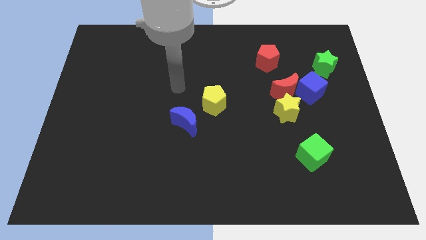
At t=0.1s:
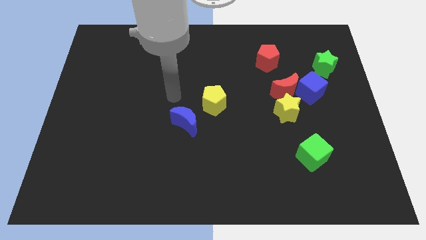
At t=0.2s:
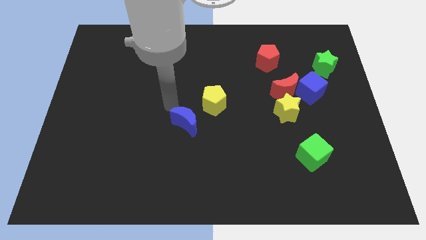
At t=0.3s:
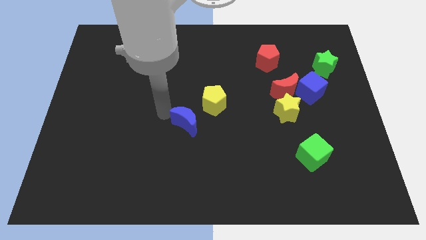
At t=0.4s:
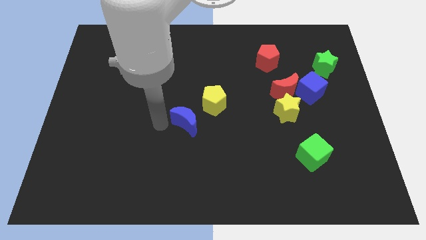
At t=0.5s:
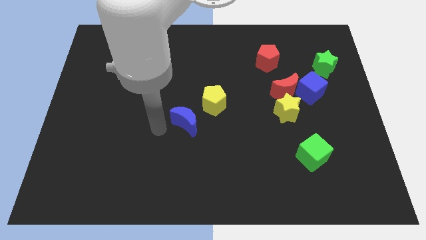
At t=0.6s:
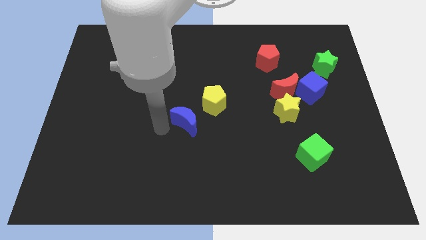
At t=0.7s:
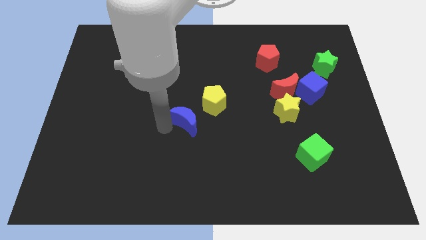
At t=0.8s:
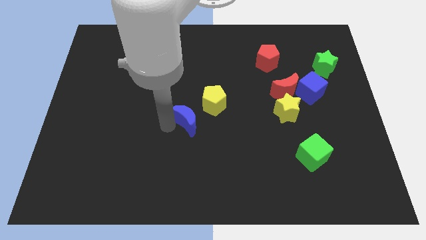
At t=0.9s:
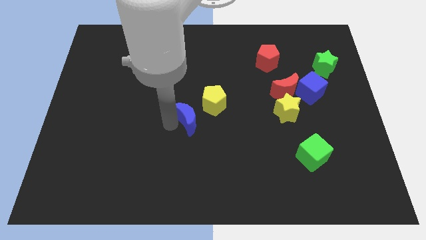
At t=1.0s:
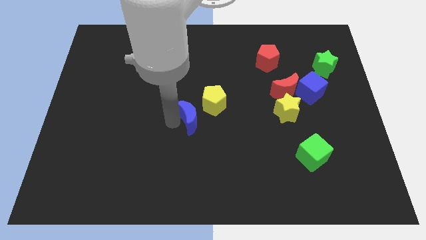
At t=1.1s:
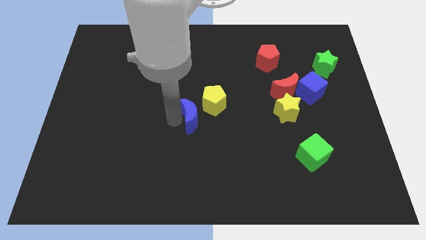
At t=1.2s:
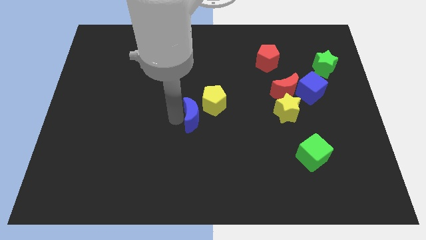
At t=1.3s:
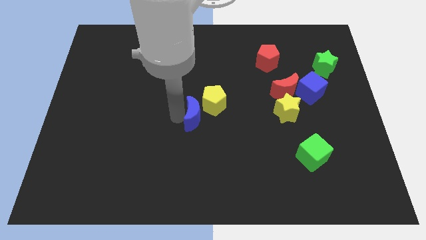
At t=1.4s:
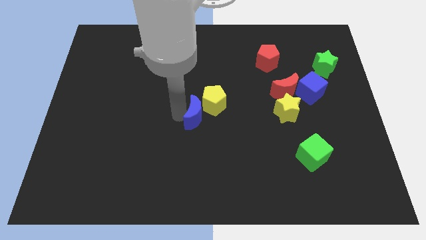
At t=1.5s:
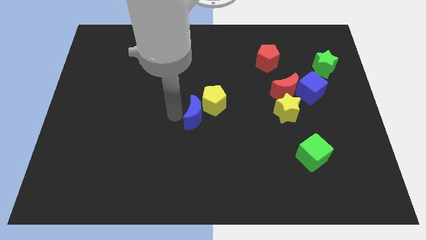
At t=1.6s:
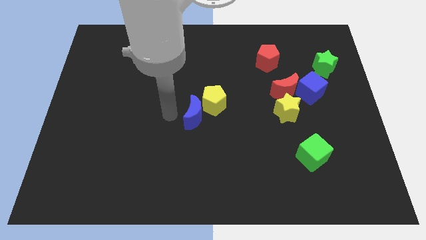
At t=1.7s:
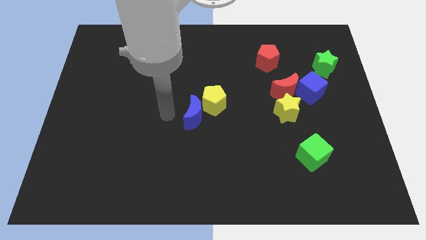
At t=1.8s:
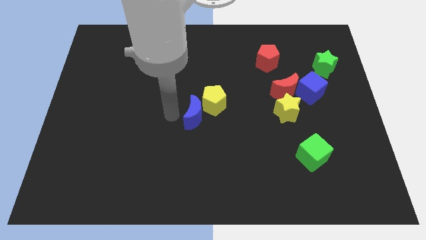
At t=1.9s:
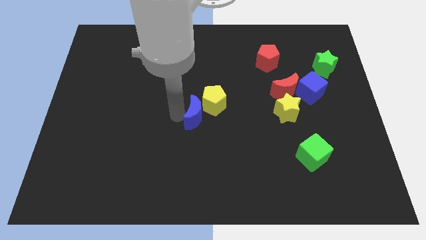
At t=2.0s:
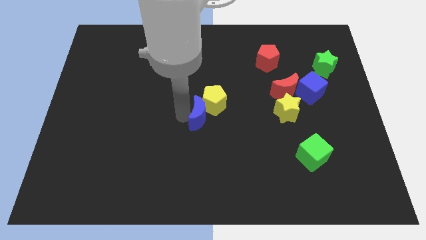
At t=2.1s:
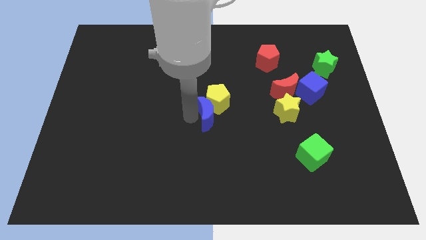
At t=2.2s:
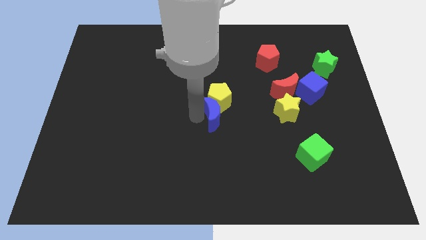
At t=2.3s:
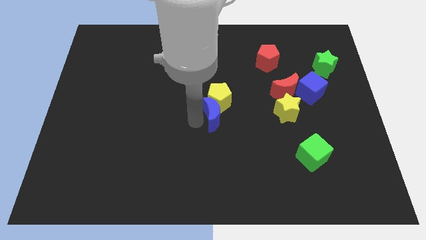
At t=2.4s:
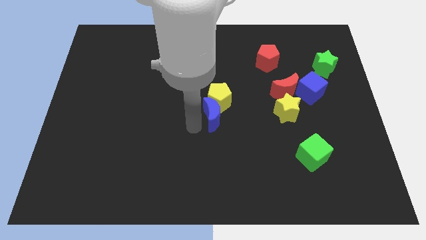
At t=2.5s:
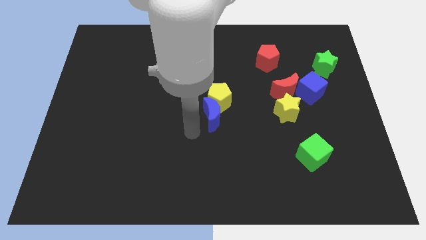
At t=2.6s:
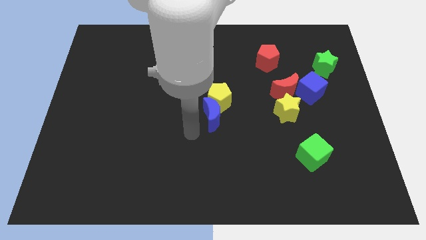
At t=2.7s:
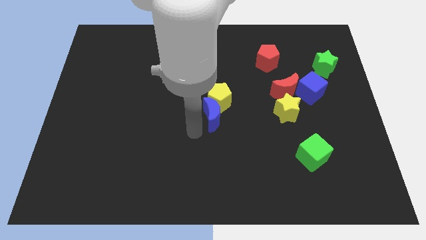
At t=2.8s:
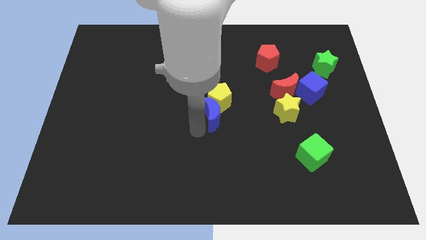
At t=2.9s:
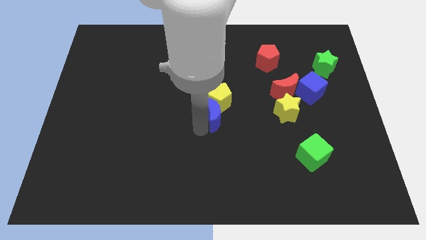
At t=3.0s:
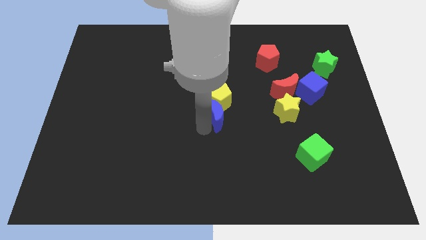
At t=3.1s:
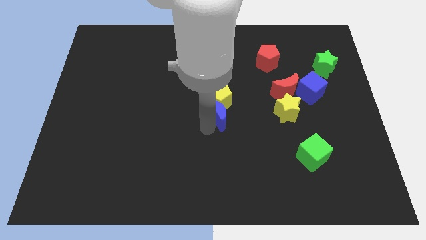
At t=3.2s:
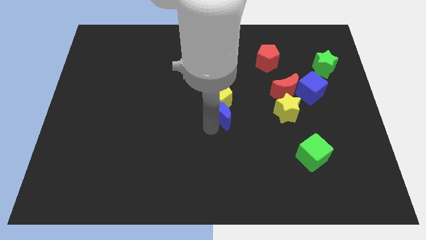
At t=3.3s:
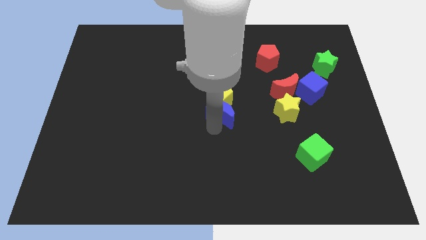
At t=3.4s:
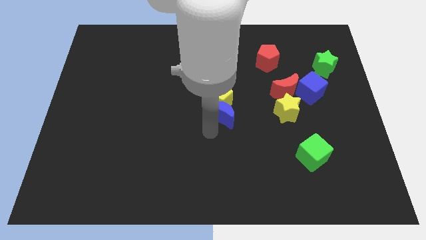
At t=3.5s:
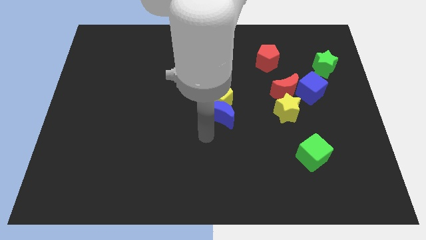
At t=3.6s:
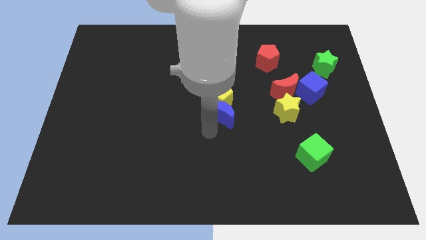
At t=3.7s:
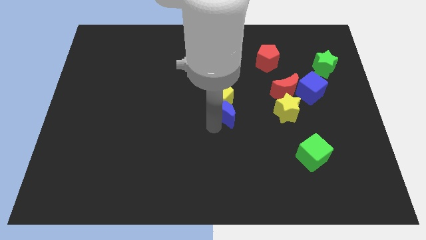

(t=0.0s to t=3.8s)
push the blue moon slightly up and to the right

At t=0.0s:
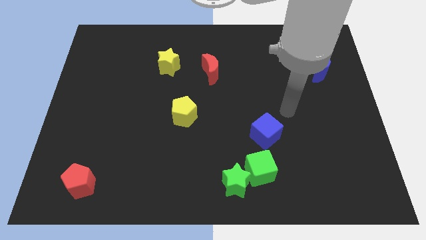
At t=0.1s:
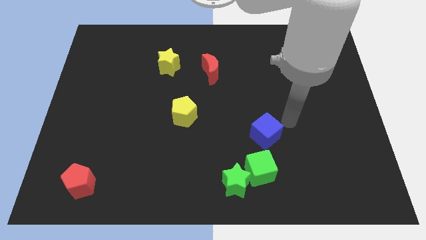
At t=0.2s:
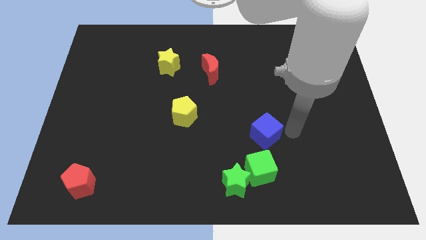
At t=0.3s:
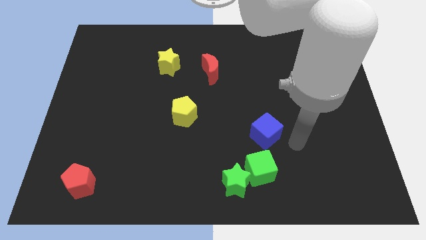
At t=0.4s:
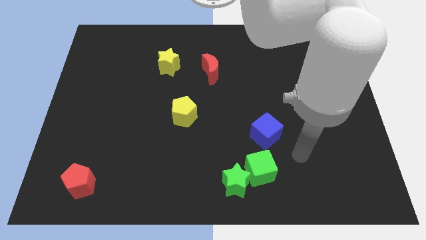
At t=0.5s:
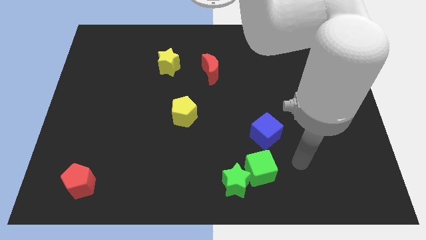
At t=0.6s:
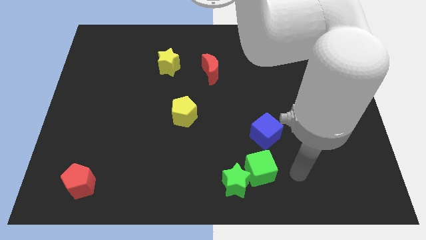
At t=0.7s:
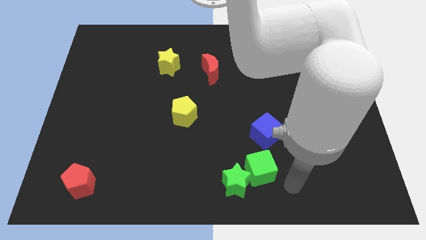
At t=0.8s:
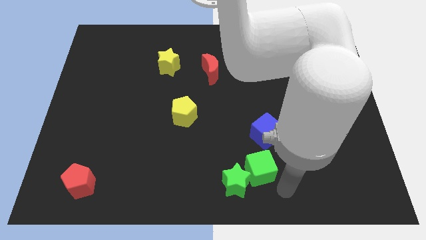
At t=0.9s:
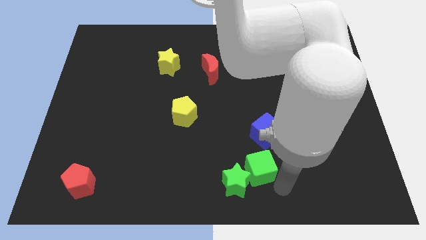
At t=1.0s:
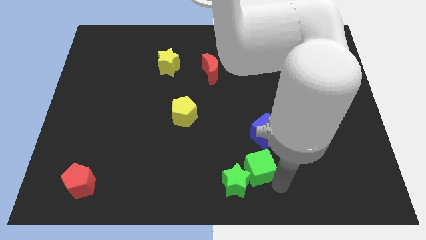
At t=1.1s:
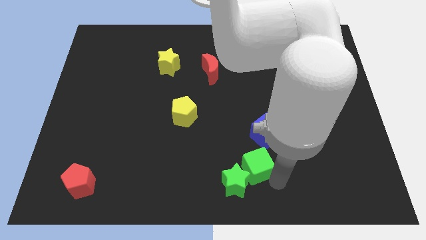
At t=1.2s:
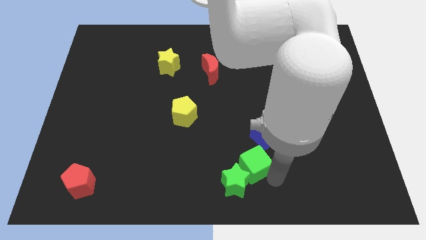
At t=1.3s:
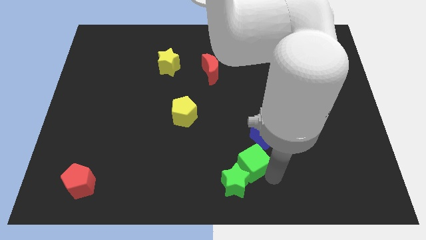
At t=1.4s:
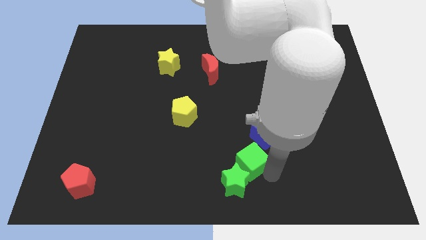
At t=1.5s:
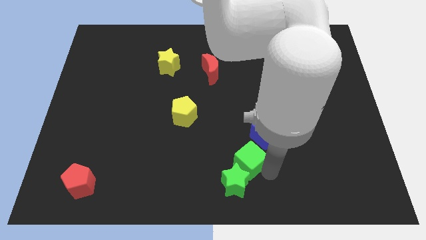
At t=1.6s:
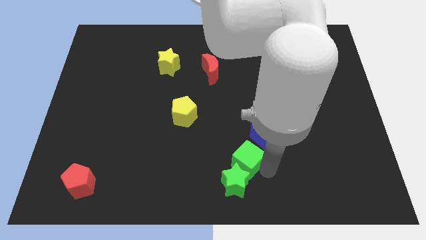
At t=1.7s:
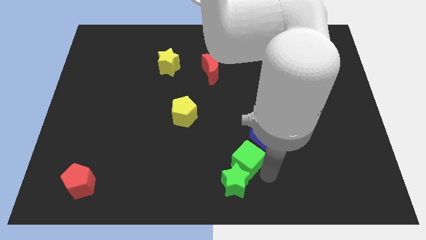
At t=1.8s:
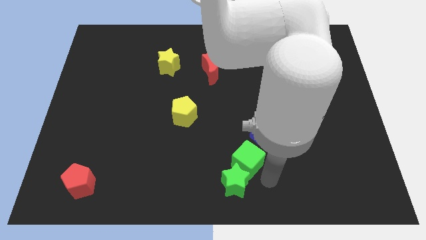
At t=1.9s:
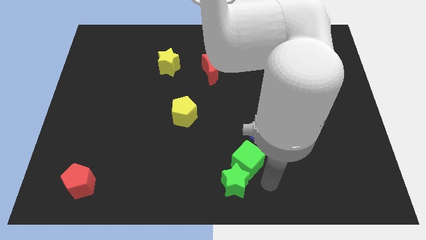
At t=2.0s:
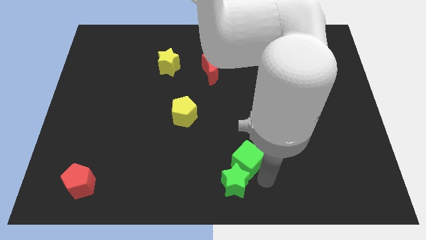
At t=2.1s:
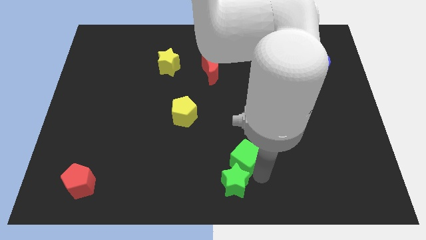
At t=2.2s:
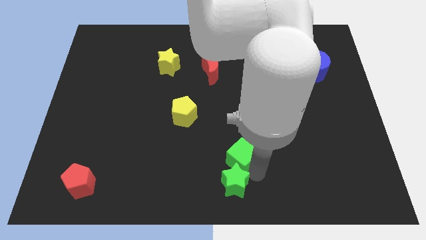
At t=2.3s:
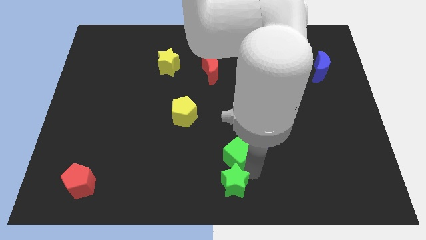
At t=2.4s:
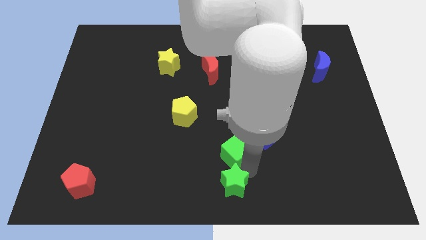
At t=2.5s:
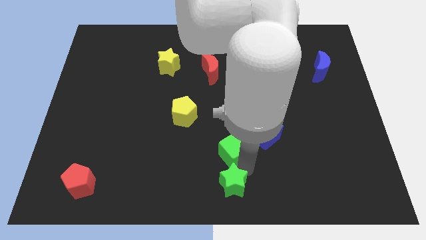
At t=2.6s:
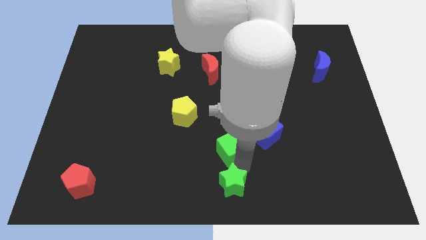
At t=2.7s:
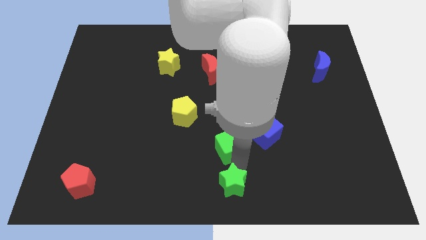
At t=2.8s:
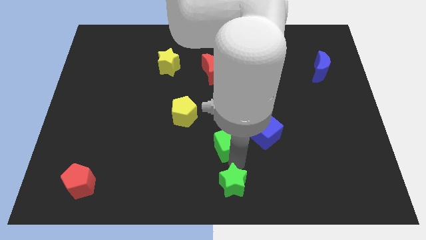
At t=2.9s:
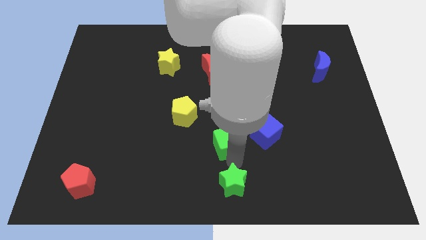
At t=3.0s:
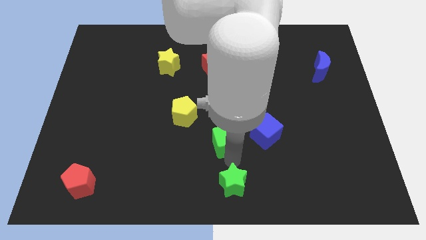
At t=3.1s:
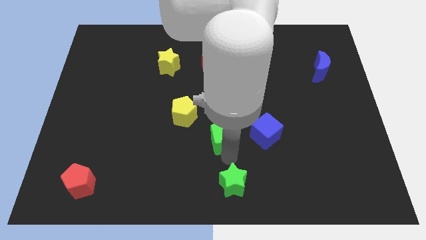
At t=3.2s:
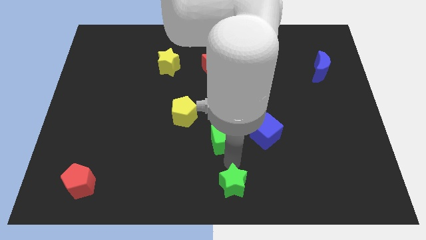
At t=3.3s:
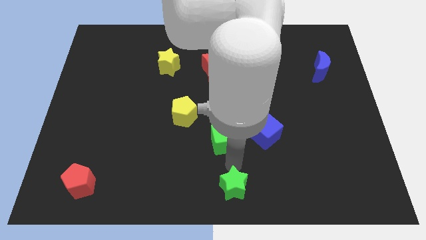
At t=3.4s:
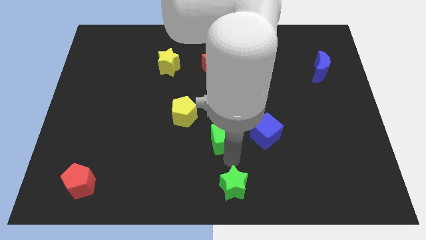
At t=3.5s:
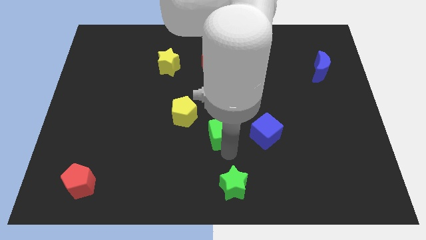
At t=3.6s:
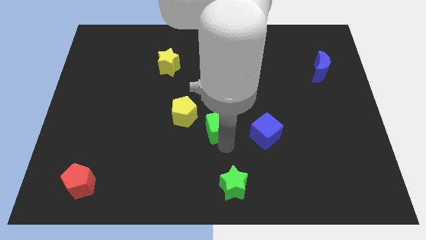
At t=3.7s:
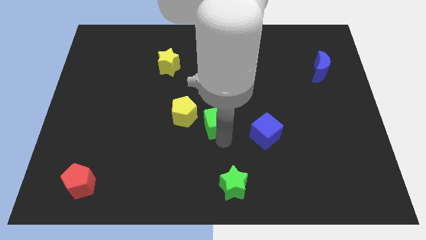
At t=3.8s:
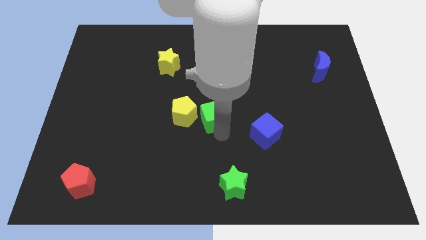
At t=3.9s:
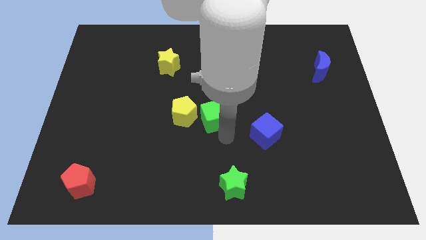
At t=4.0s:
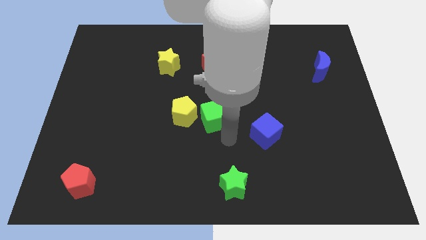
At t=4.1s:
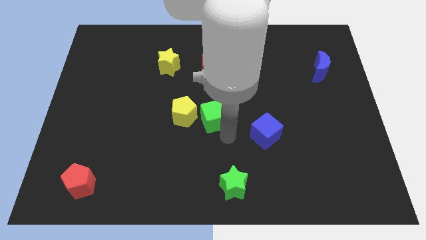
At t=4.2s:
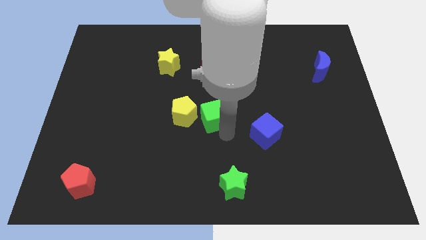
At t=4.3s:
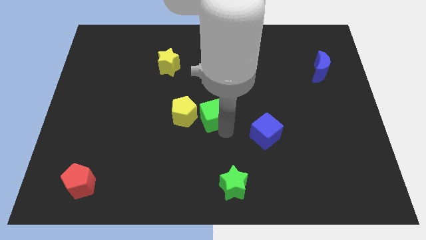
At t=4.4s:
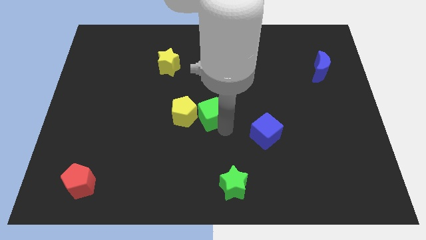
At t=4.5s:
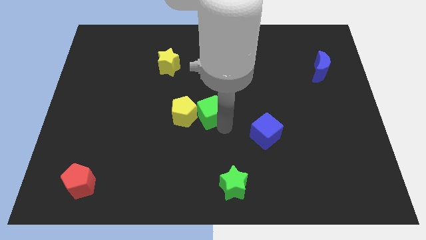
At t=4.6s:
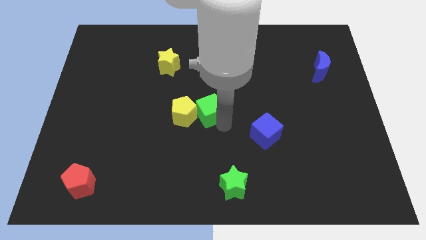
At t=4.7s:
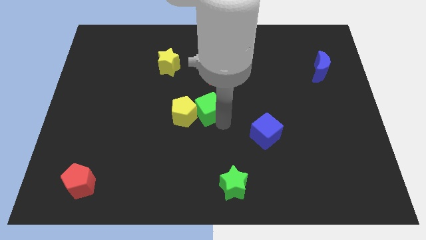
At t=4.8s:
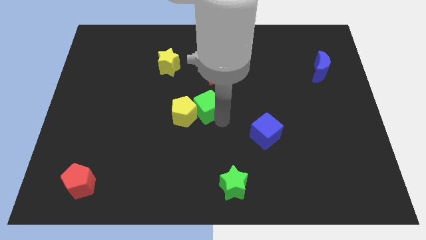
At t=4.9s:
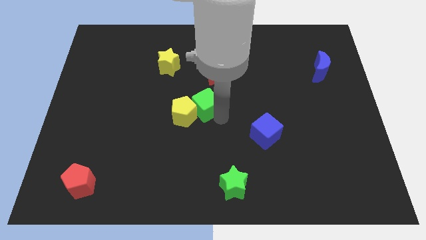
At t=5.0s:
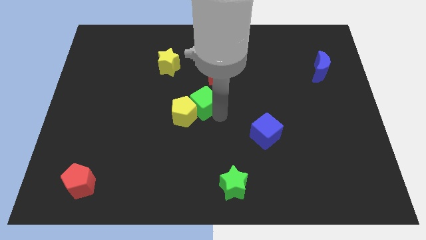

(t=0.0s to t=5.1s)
push the green cube diagonally up and to the left
